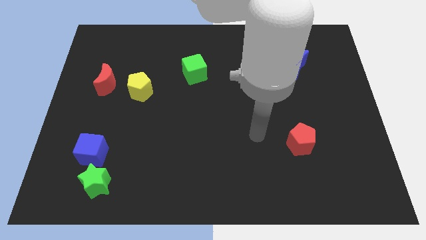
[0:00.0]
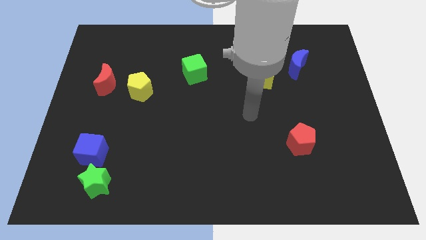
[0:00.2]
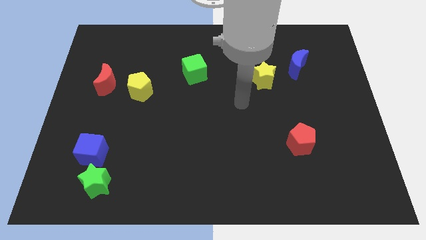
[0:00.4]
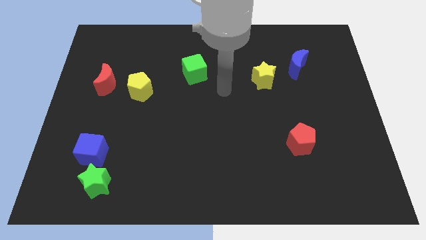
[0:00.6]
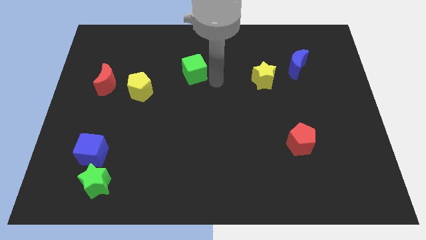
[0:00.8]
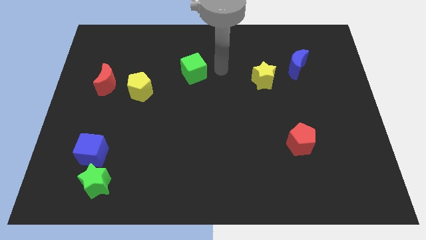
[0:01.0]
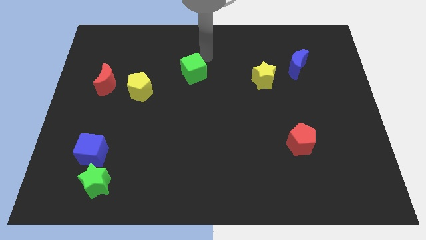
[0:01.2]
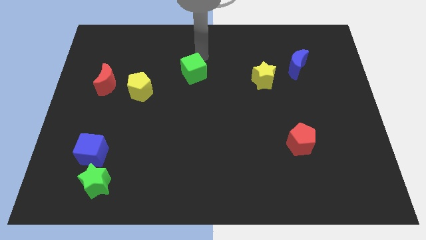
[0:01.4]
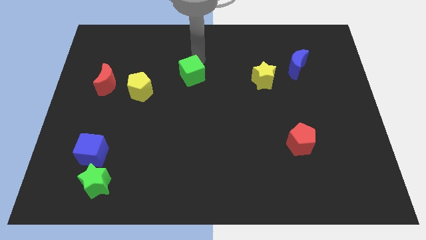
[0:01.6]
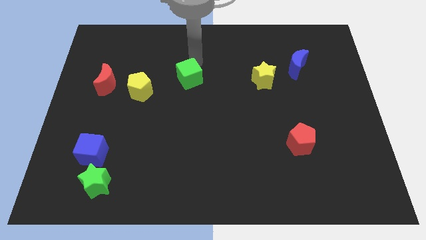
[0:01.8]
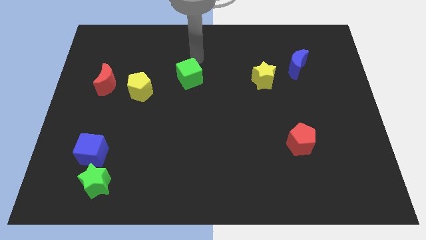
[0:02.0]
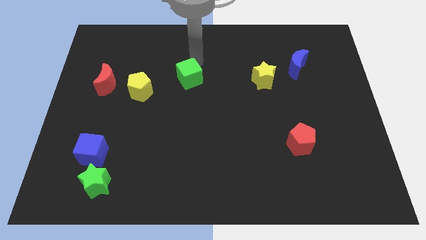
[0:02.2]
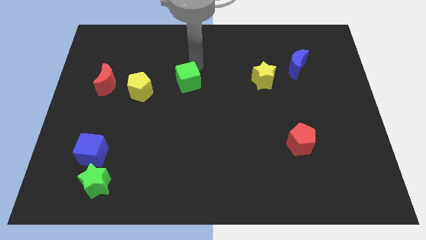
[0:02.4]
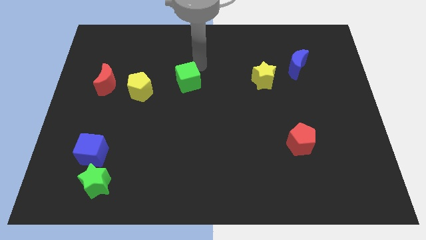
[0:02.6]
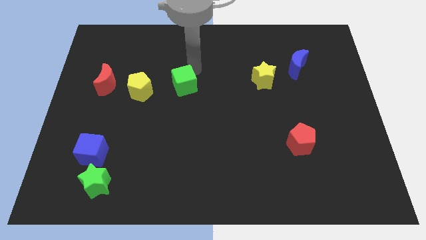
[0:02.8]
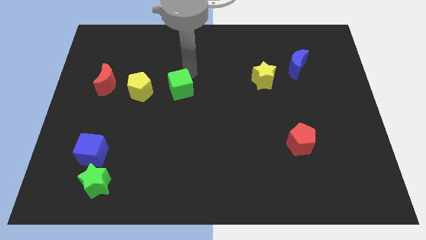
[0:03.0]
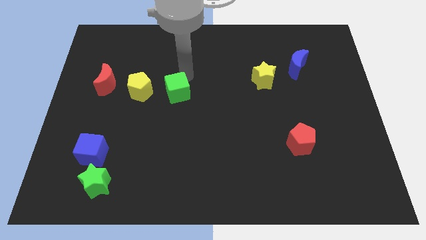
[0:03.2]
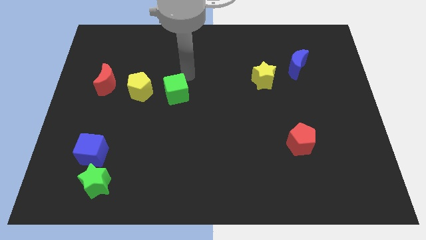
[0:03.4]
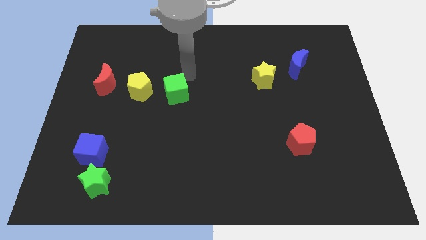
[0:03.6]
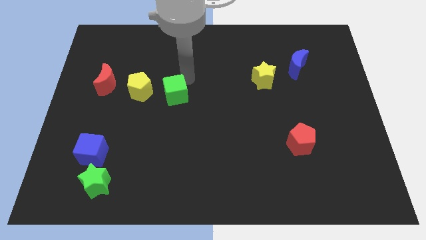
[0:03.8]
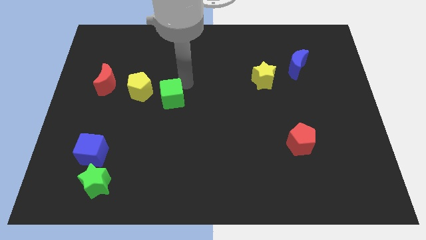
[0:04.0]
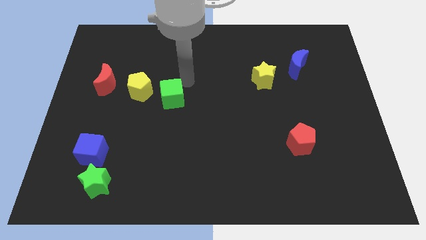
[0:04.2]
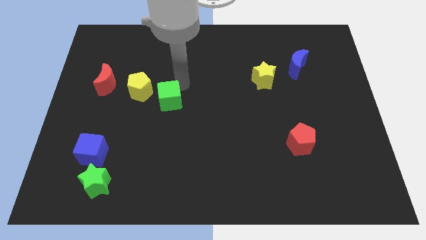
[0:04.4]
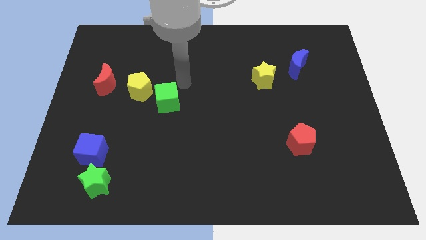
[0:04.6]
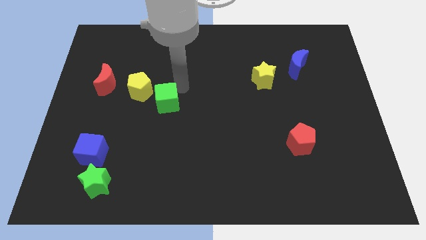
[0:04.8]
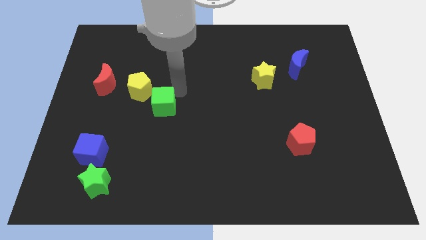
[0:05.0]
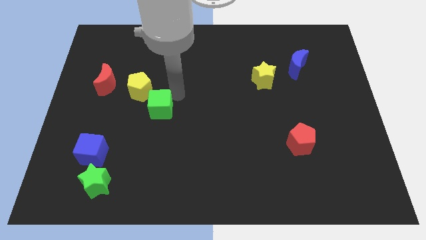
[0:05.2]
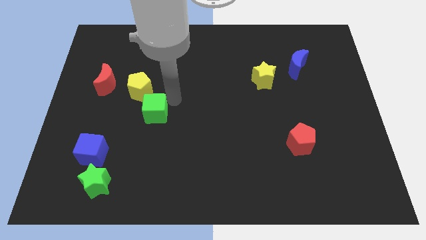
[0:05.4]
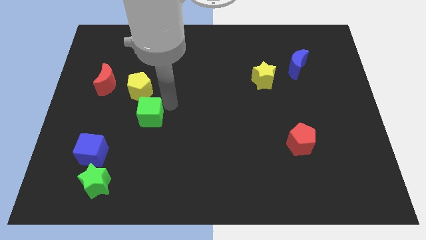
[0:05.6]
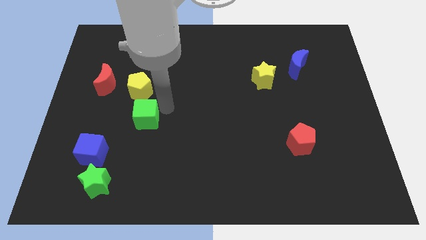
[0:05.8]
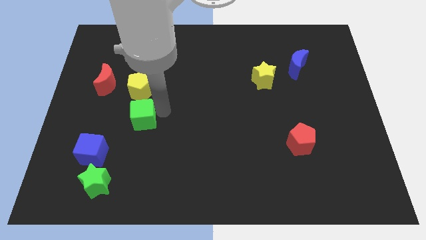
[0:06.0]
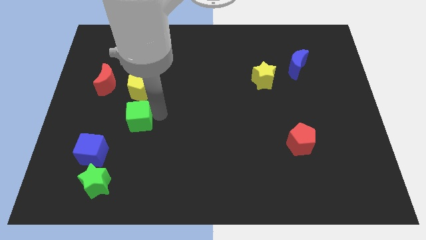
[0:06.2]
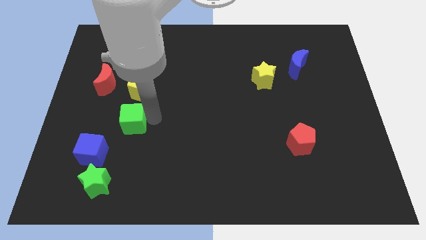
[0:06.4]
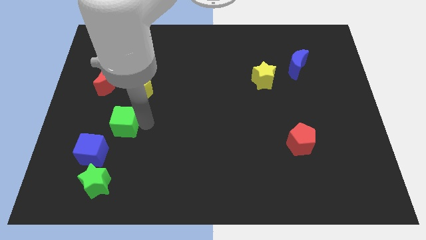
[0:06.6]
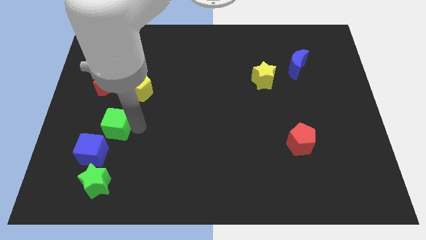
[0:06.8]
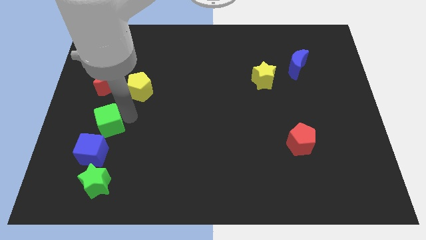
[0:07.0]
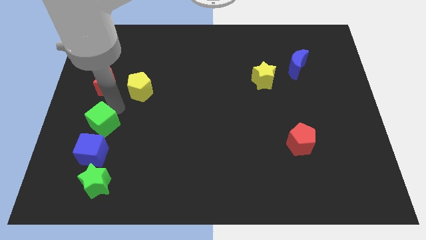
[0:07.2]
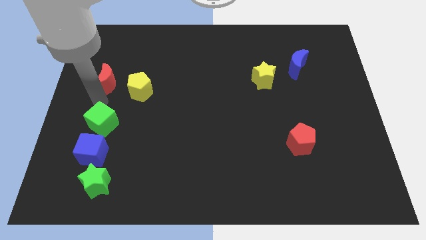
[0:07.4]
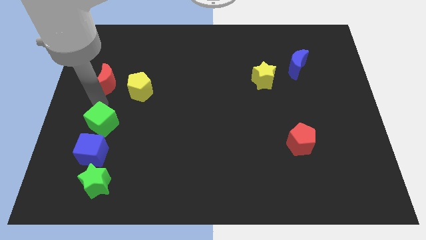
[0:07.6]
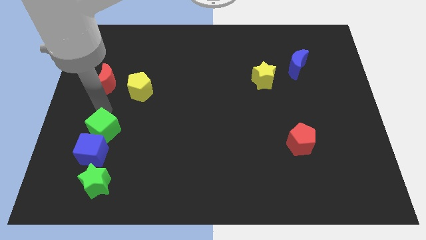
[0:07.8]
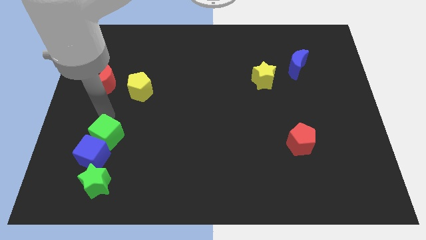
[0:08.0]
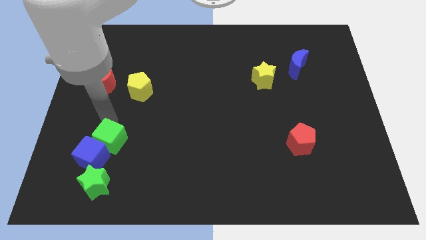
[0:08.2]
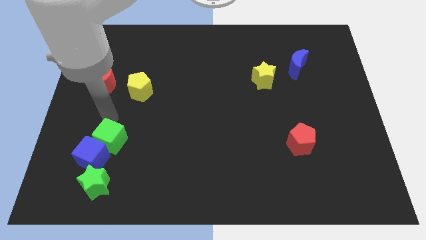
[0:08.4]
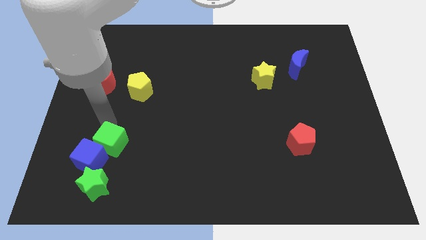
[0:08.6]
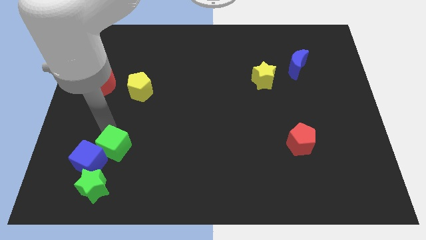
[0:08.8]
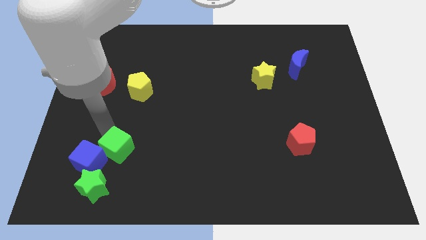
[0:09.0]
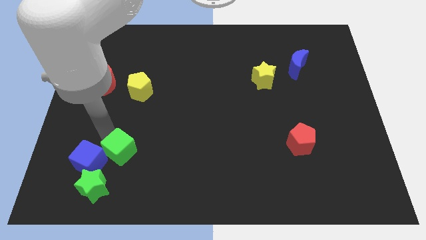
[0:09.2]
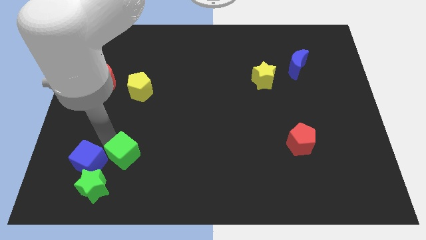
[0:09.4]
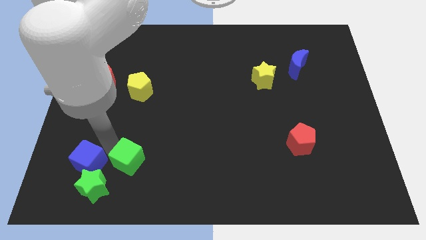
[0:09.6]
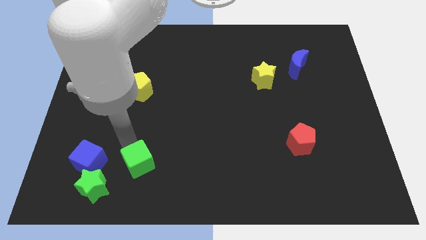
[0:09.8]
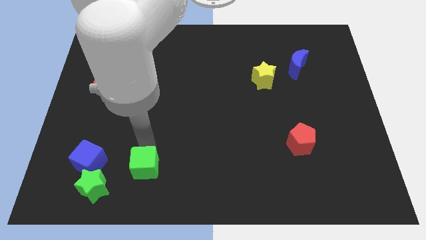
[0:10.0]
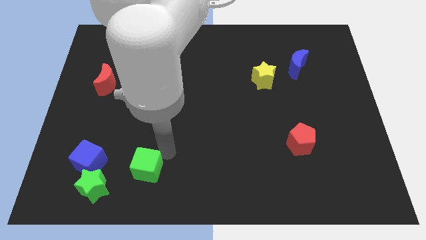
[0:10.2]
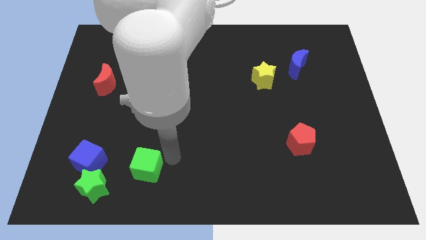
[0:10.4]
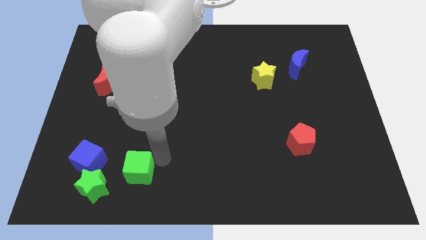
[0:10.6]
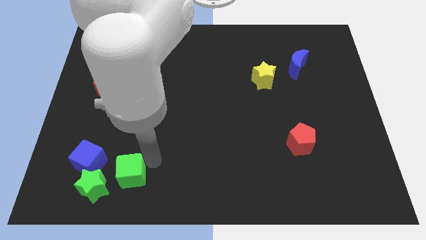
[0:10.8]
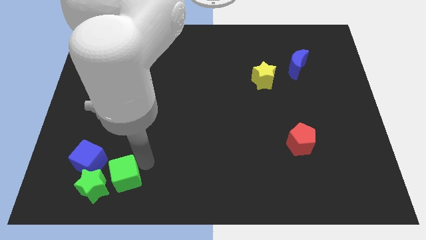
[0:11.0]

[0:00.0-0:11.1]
push the green cube towards the green star

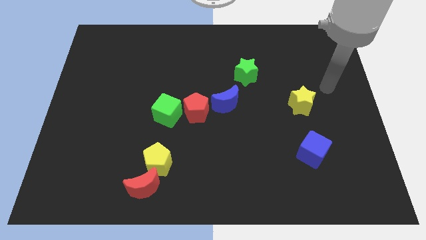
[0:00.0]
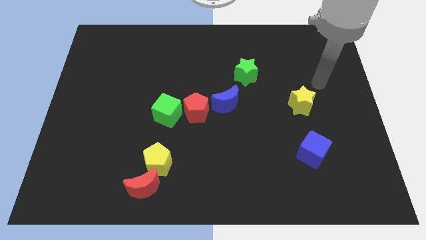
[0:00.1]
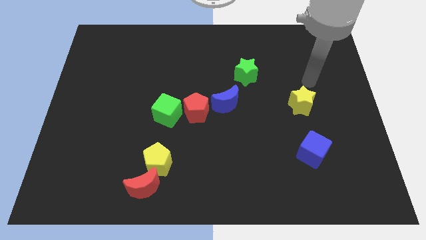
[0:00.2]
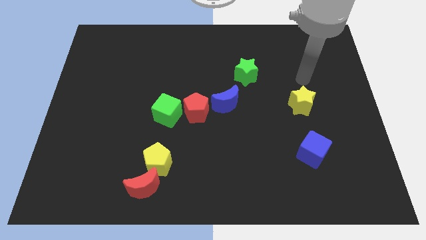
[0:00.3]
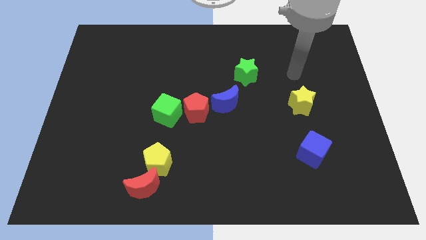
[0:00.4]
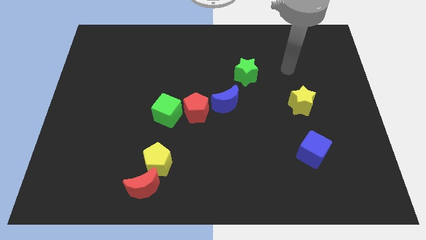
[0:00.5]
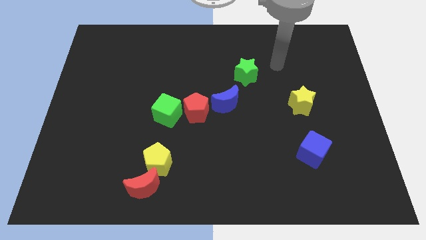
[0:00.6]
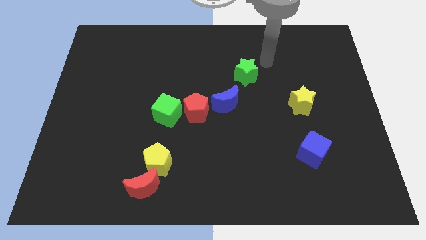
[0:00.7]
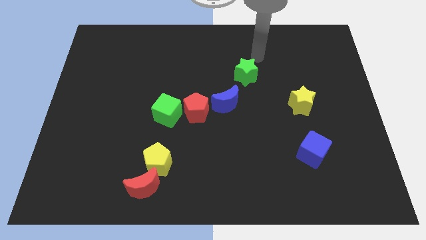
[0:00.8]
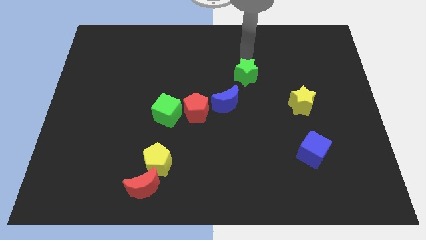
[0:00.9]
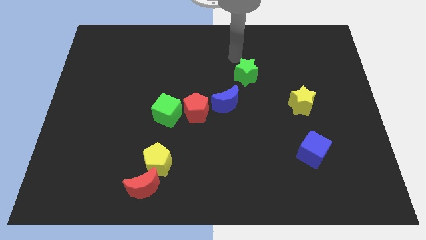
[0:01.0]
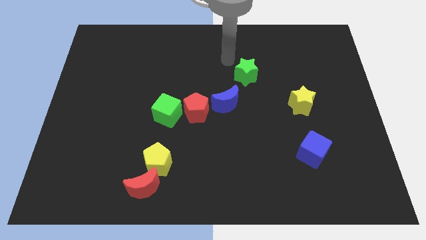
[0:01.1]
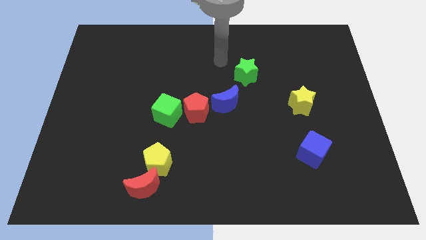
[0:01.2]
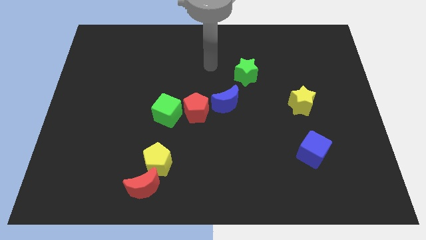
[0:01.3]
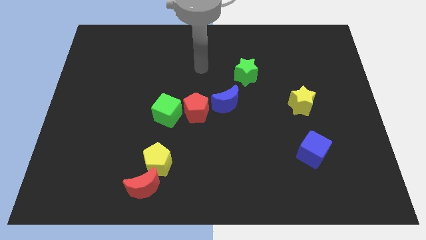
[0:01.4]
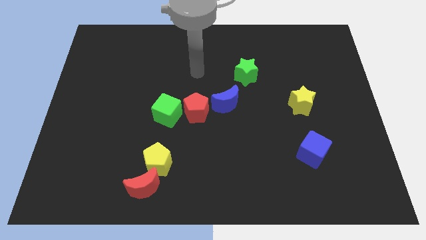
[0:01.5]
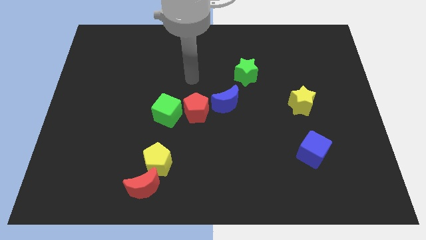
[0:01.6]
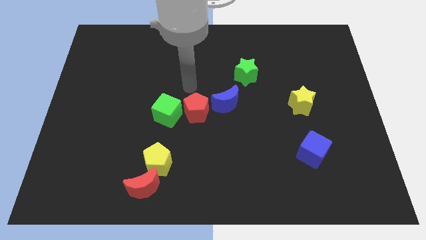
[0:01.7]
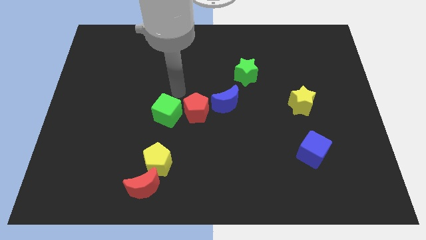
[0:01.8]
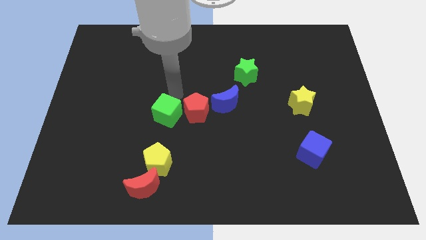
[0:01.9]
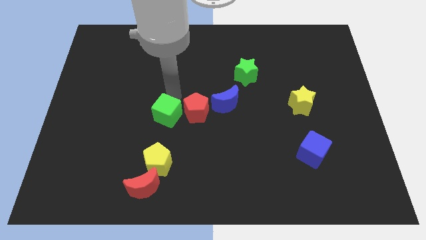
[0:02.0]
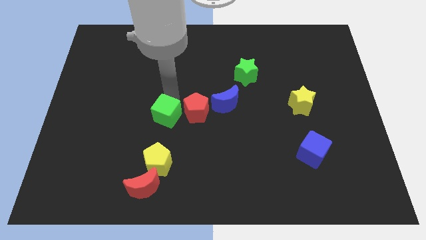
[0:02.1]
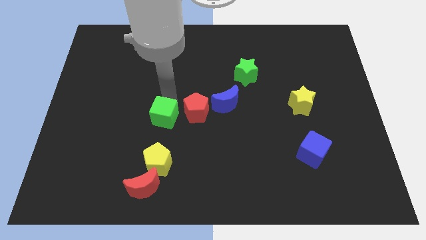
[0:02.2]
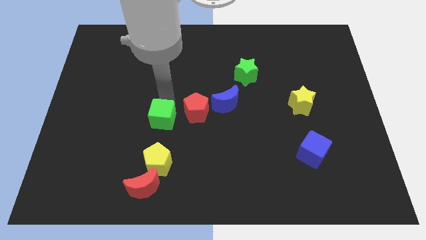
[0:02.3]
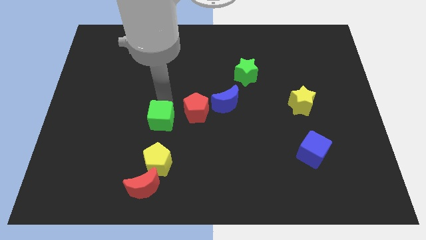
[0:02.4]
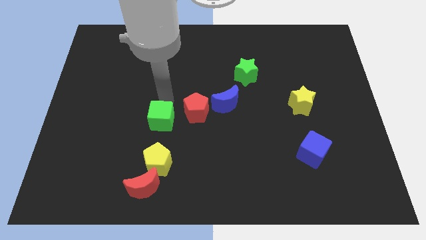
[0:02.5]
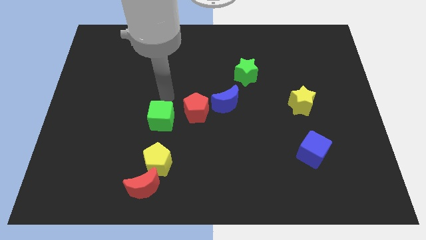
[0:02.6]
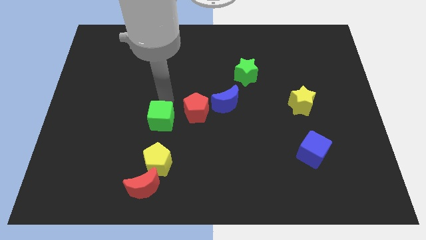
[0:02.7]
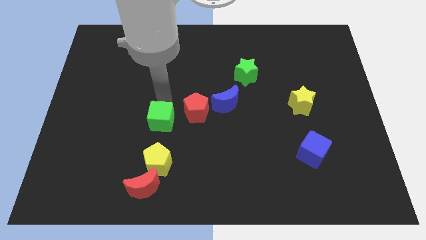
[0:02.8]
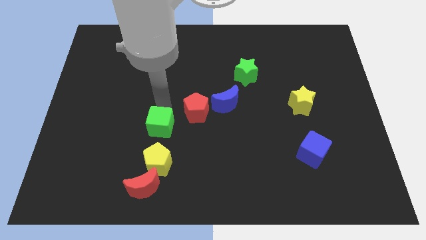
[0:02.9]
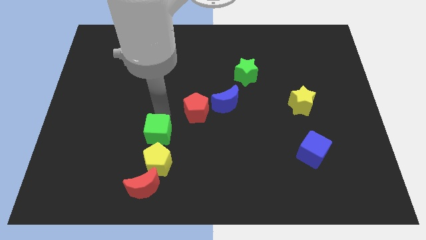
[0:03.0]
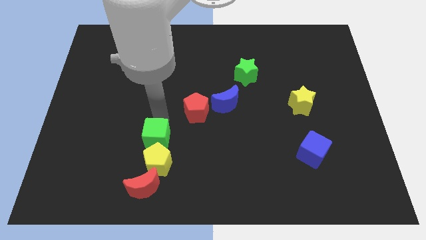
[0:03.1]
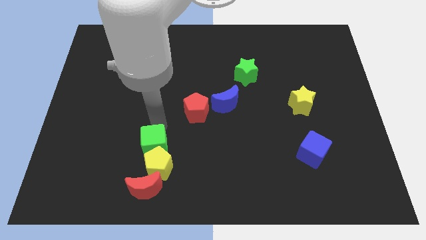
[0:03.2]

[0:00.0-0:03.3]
move the green cube to the yellow pentagon
